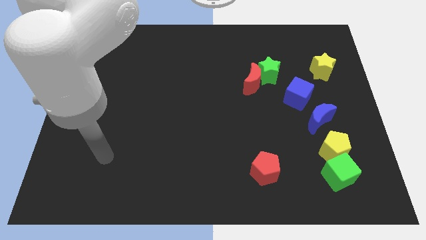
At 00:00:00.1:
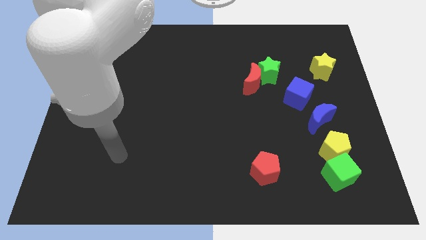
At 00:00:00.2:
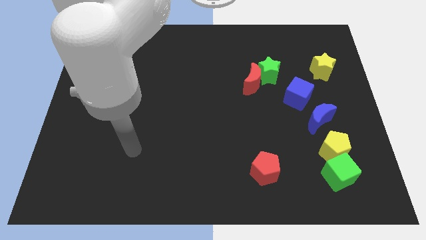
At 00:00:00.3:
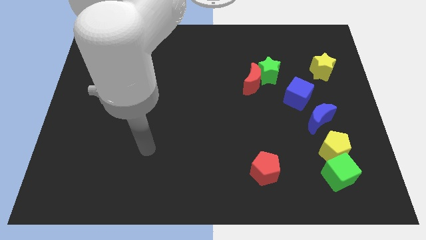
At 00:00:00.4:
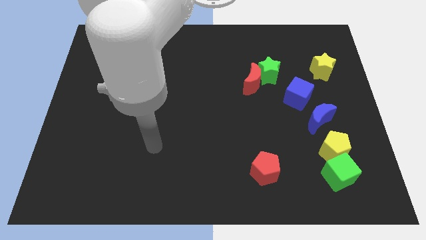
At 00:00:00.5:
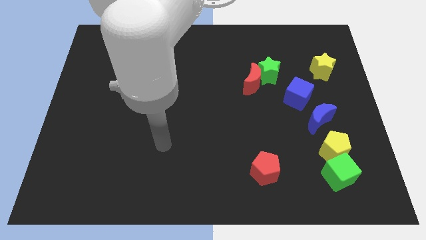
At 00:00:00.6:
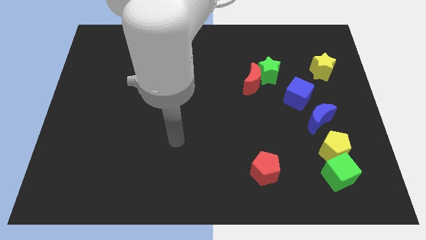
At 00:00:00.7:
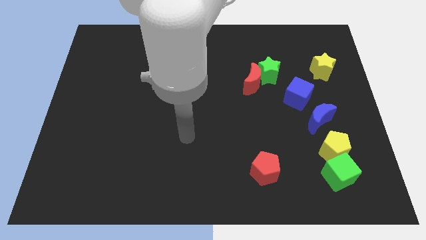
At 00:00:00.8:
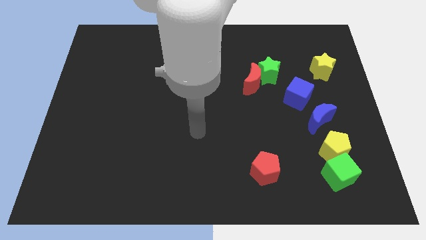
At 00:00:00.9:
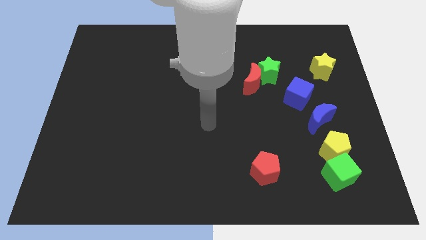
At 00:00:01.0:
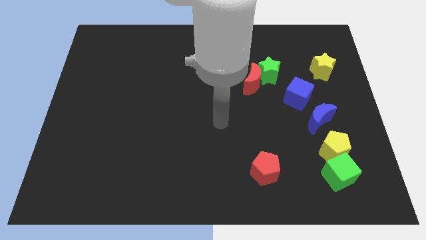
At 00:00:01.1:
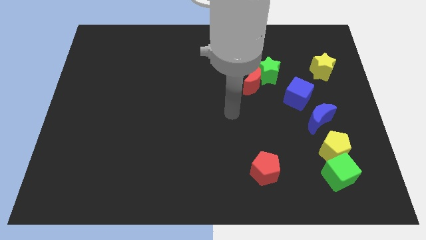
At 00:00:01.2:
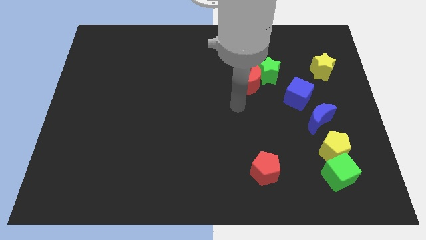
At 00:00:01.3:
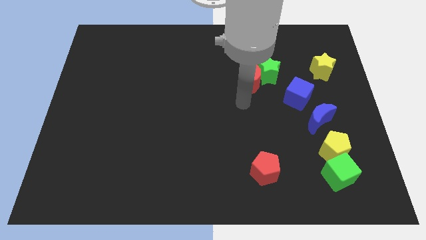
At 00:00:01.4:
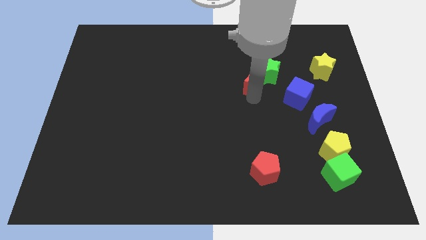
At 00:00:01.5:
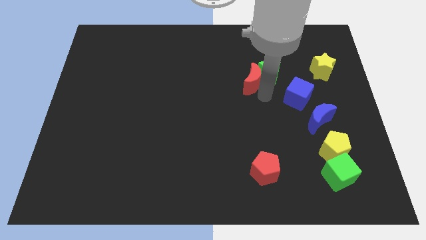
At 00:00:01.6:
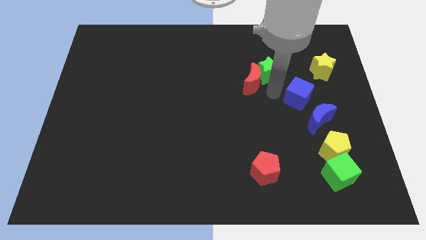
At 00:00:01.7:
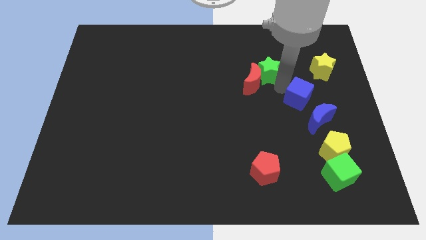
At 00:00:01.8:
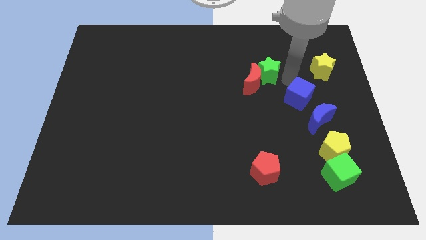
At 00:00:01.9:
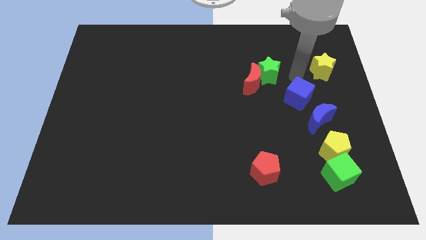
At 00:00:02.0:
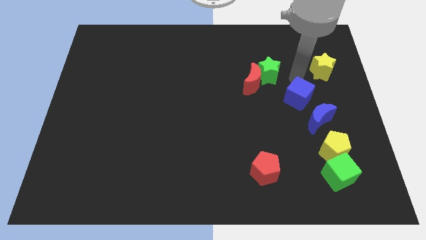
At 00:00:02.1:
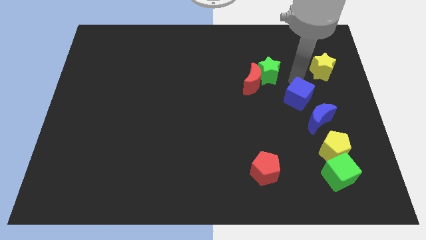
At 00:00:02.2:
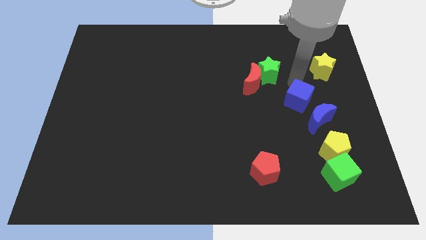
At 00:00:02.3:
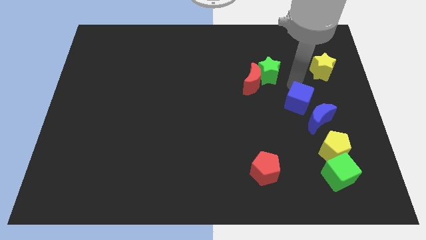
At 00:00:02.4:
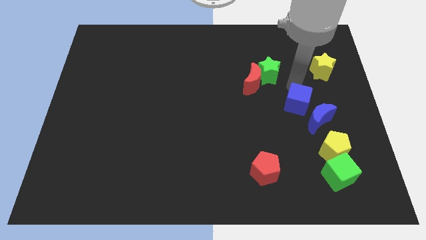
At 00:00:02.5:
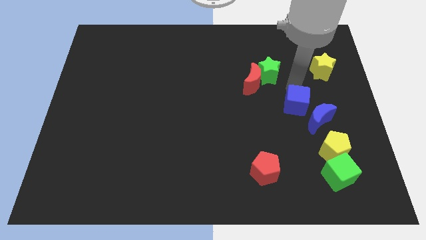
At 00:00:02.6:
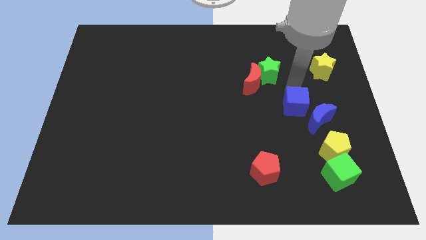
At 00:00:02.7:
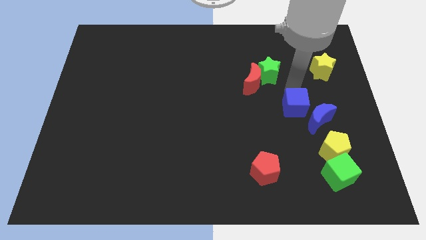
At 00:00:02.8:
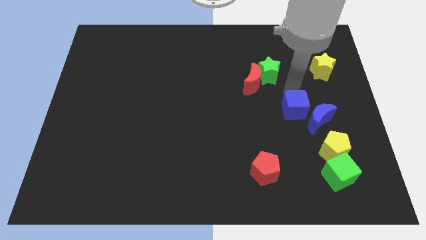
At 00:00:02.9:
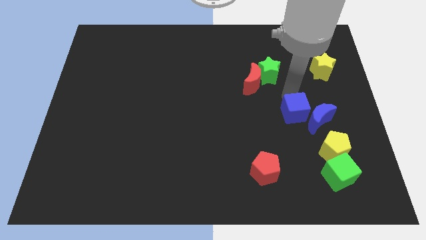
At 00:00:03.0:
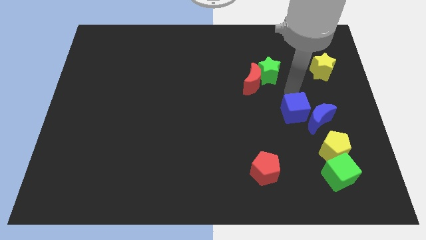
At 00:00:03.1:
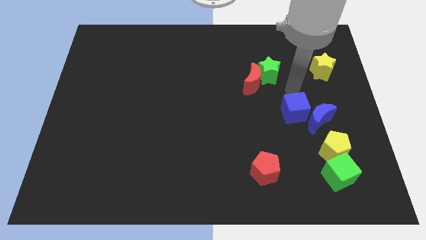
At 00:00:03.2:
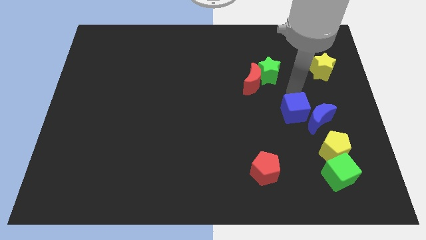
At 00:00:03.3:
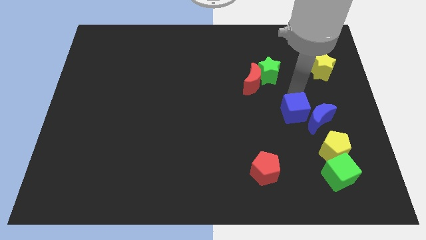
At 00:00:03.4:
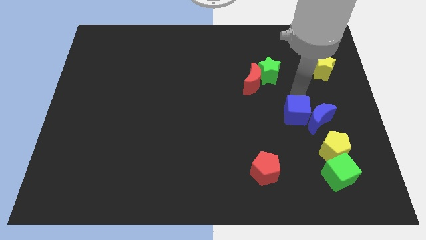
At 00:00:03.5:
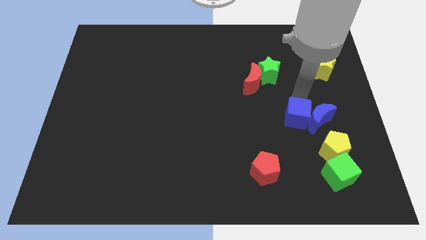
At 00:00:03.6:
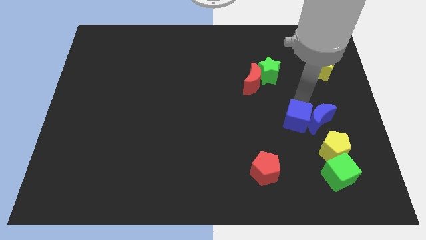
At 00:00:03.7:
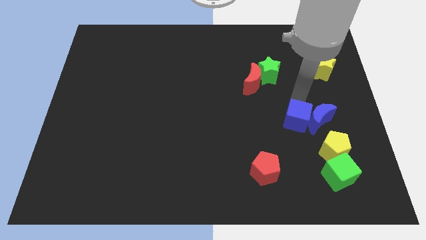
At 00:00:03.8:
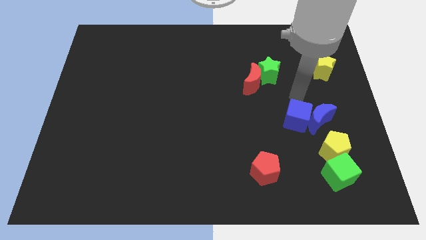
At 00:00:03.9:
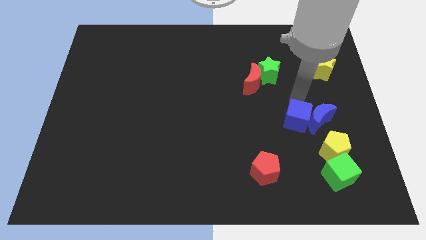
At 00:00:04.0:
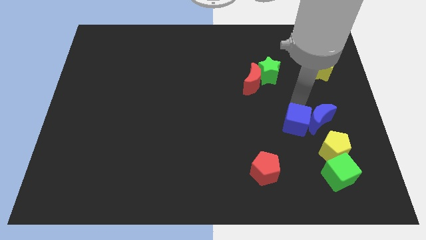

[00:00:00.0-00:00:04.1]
slightly push the blue cube down

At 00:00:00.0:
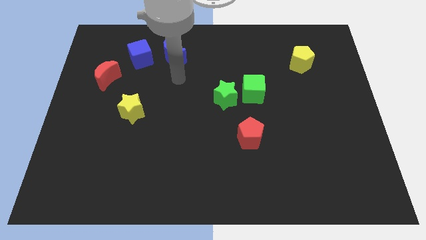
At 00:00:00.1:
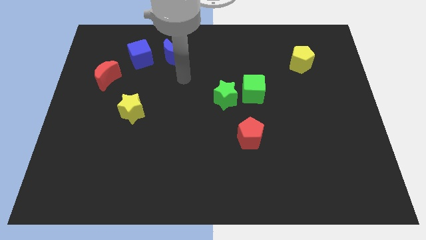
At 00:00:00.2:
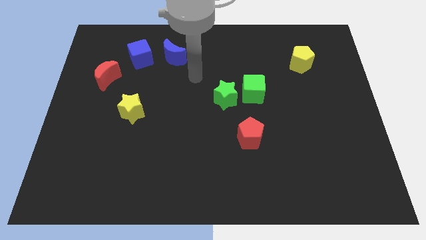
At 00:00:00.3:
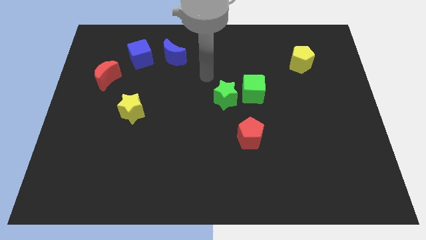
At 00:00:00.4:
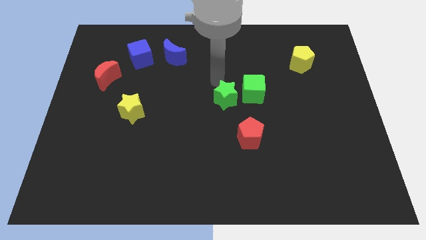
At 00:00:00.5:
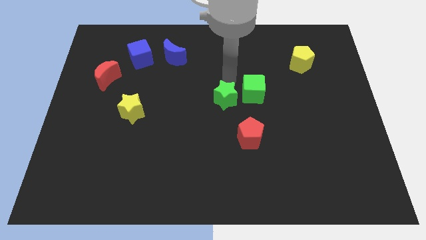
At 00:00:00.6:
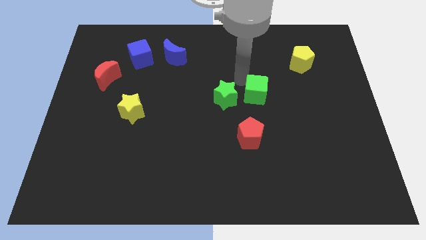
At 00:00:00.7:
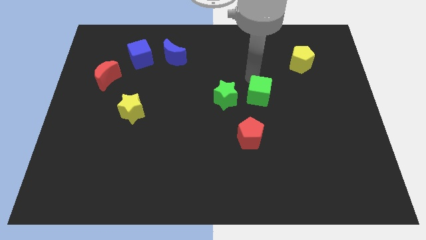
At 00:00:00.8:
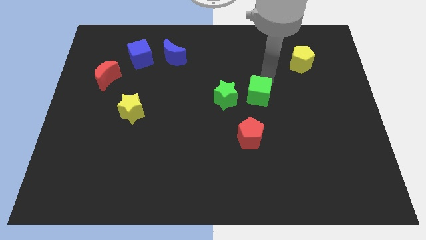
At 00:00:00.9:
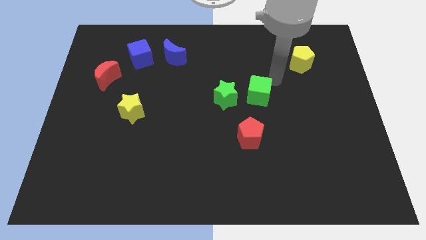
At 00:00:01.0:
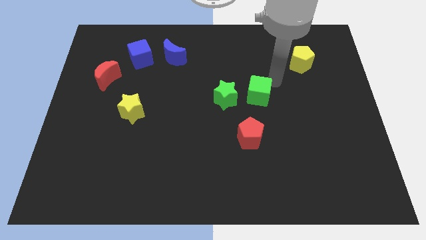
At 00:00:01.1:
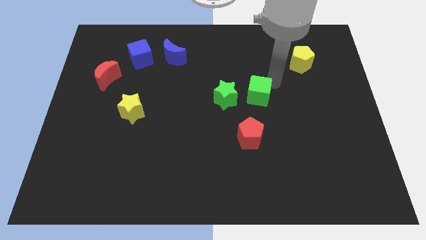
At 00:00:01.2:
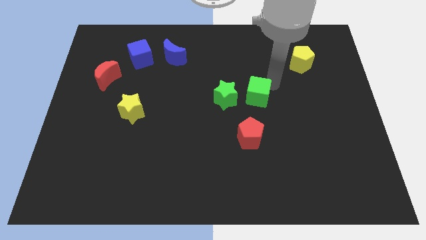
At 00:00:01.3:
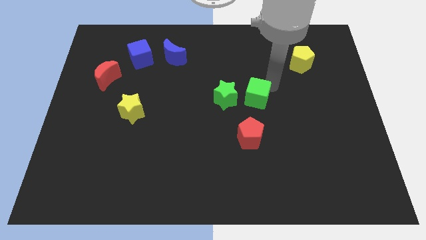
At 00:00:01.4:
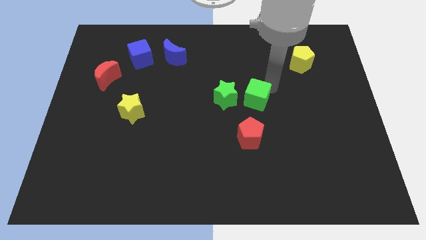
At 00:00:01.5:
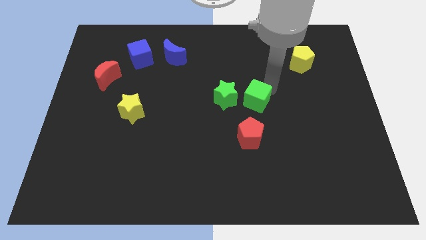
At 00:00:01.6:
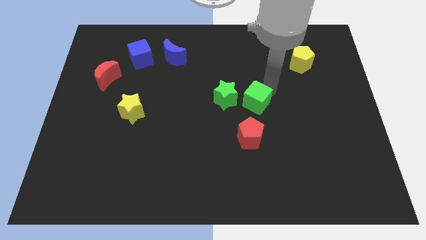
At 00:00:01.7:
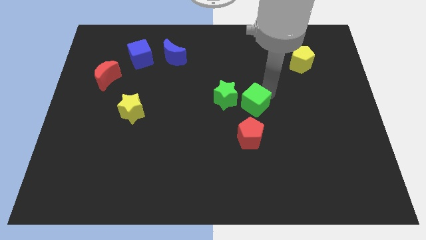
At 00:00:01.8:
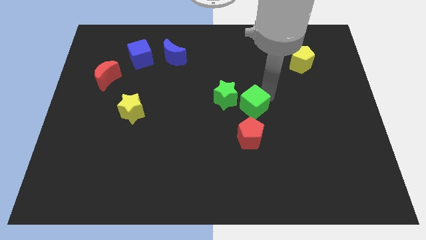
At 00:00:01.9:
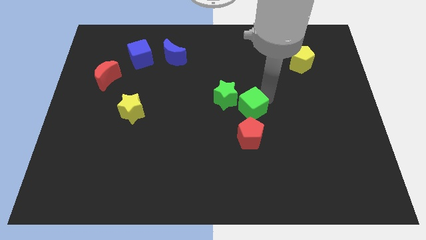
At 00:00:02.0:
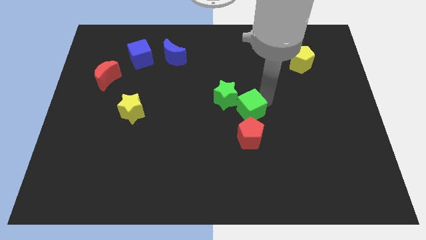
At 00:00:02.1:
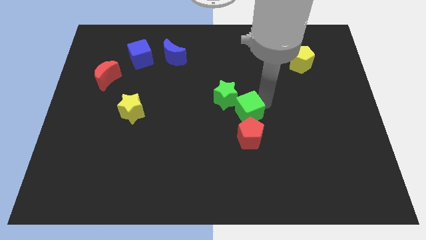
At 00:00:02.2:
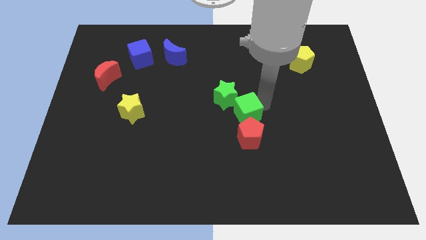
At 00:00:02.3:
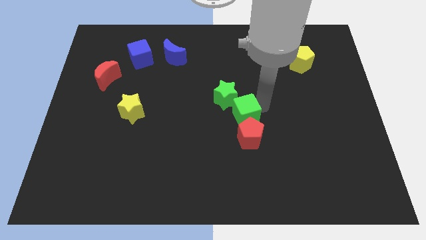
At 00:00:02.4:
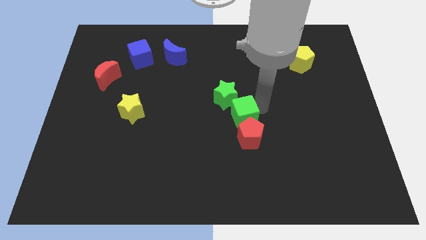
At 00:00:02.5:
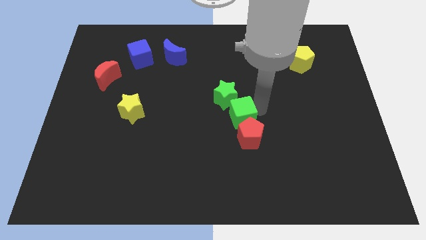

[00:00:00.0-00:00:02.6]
slightly push the green cube down and then left

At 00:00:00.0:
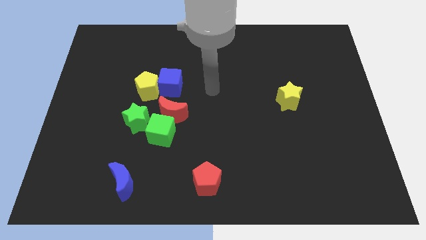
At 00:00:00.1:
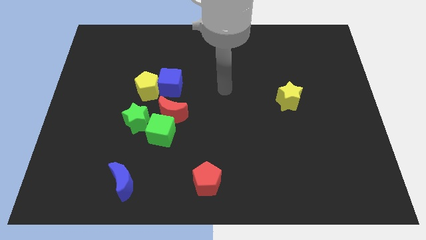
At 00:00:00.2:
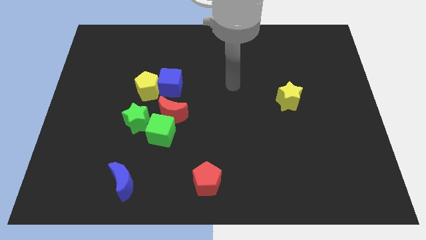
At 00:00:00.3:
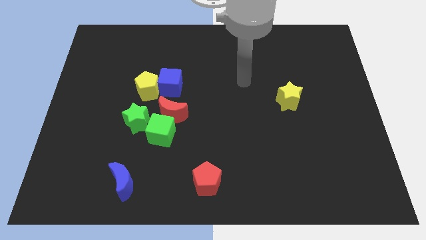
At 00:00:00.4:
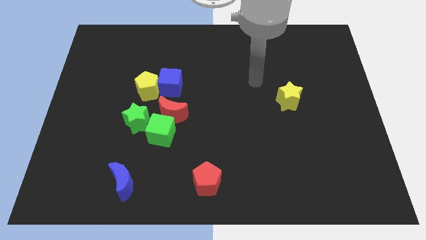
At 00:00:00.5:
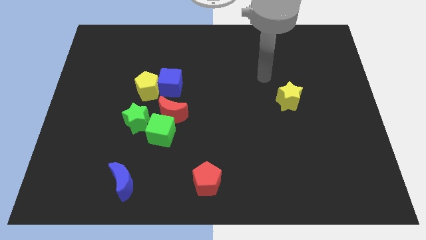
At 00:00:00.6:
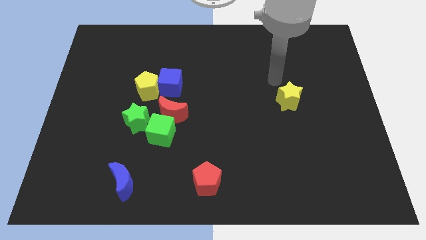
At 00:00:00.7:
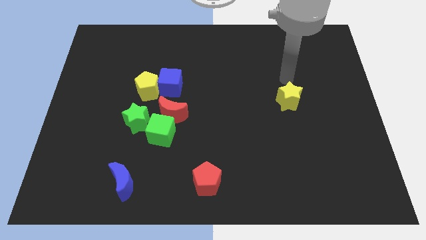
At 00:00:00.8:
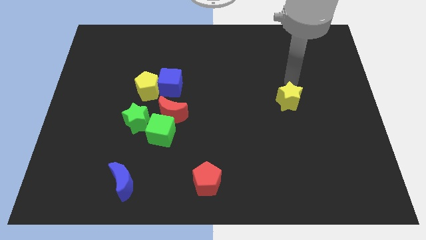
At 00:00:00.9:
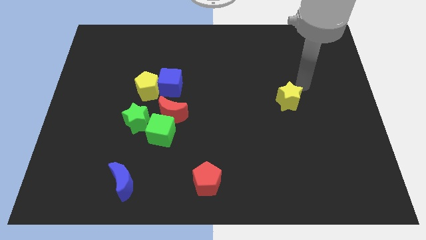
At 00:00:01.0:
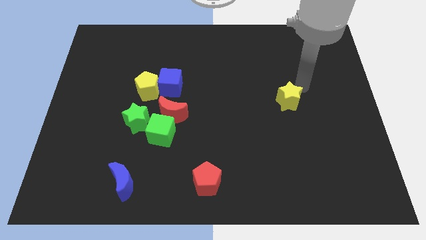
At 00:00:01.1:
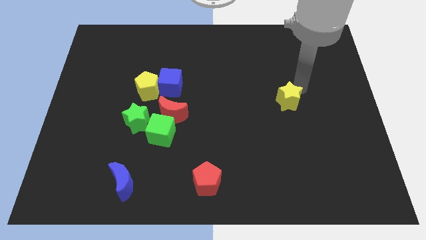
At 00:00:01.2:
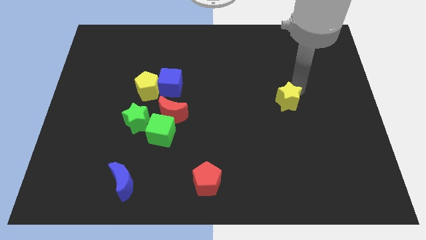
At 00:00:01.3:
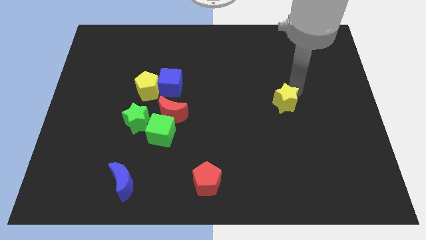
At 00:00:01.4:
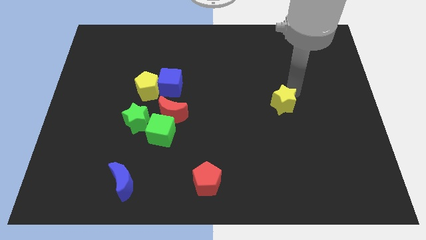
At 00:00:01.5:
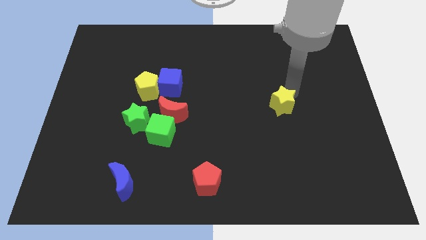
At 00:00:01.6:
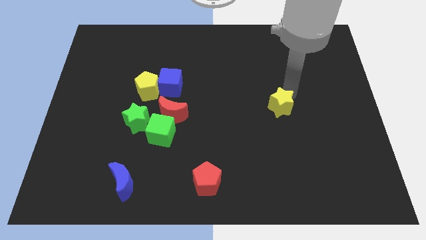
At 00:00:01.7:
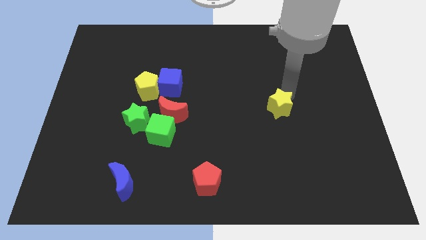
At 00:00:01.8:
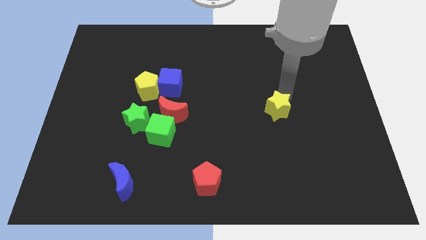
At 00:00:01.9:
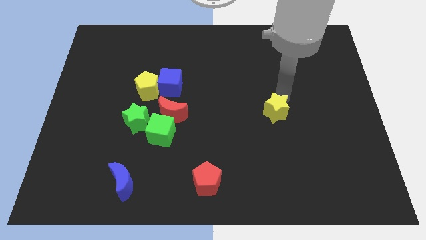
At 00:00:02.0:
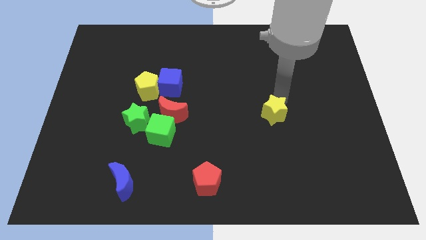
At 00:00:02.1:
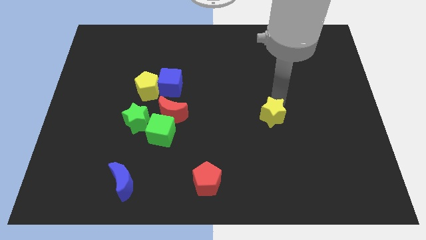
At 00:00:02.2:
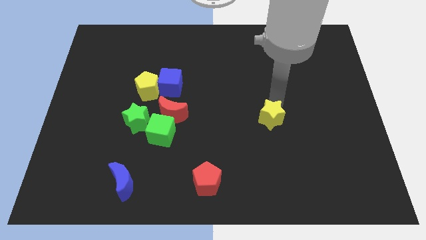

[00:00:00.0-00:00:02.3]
slightly move the yellow star downwards and to the left diagonally
